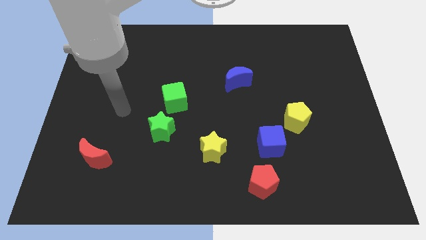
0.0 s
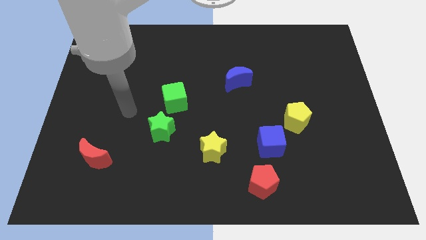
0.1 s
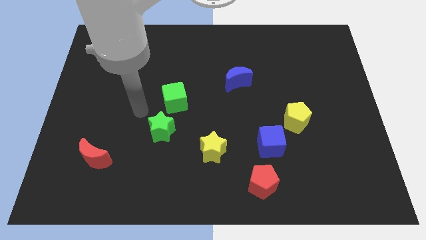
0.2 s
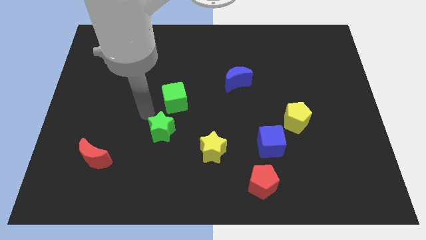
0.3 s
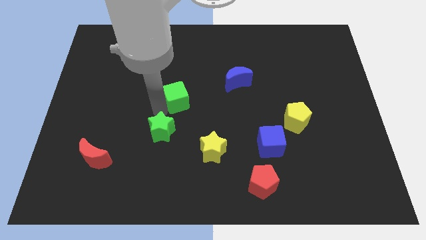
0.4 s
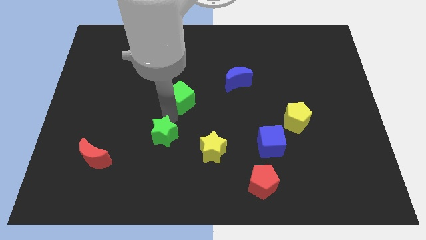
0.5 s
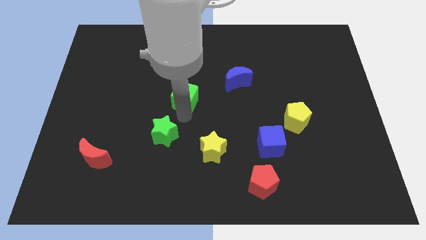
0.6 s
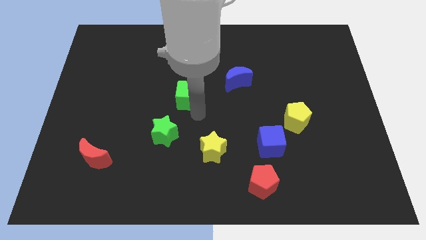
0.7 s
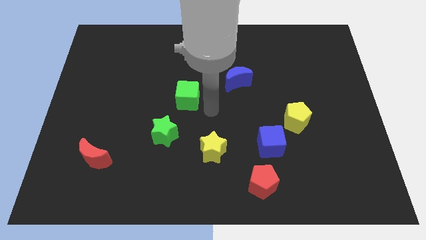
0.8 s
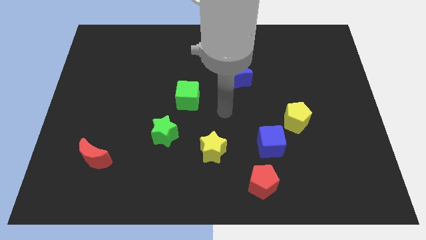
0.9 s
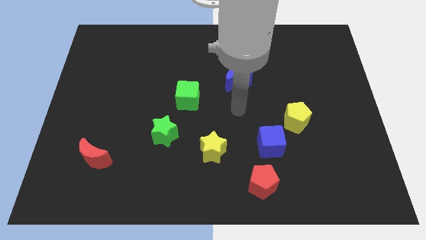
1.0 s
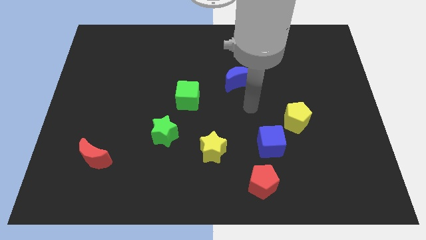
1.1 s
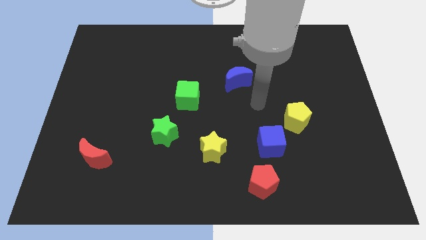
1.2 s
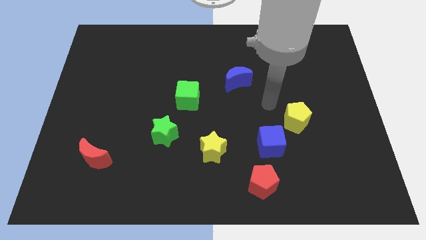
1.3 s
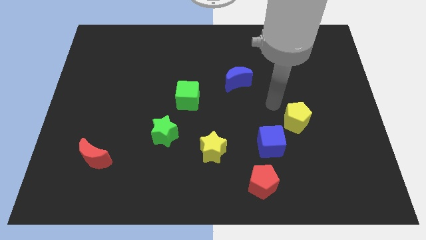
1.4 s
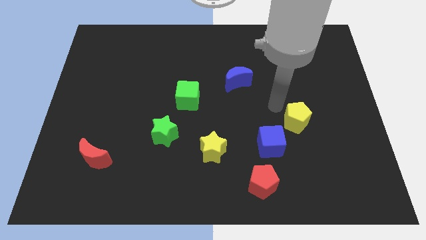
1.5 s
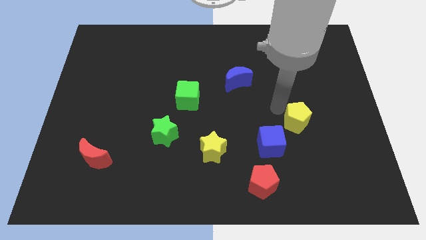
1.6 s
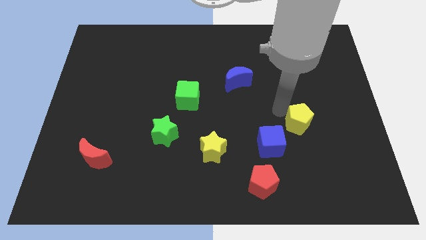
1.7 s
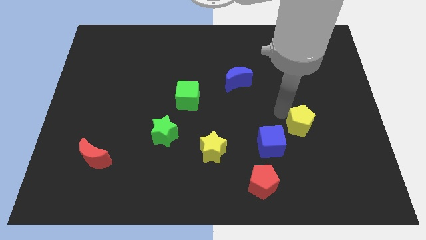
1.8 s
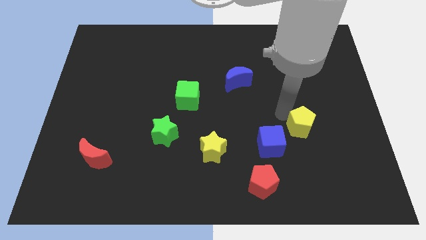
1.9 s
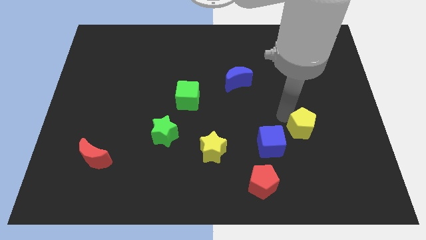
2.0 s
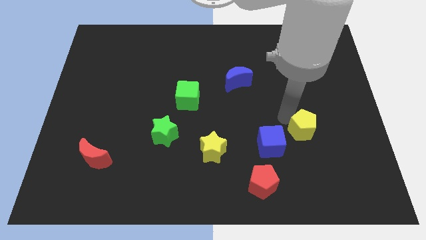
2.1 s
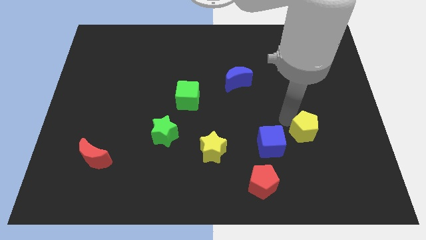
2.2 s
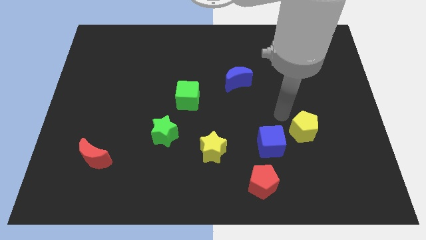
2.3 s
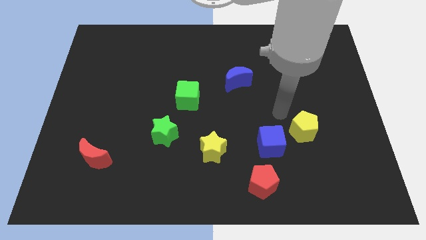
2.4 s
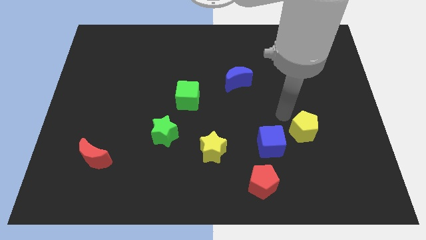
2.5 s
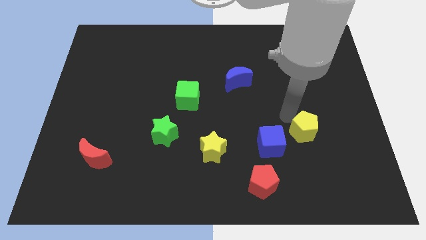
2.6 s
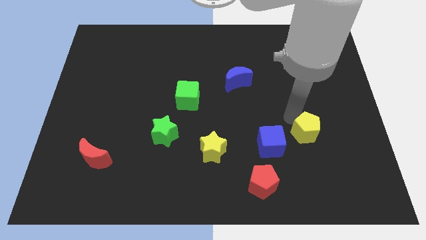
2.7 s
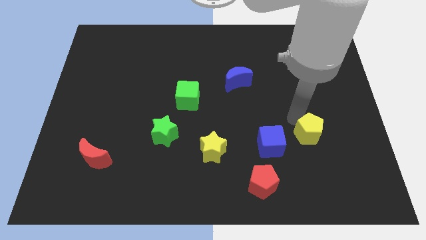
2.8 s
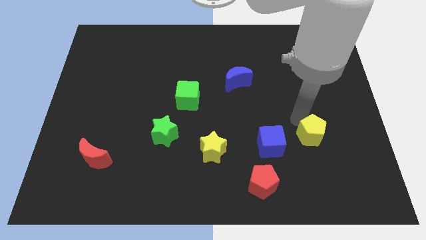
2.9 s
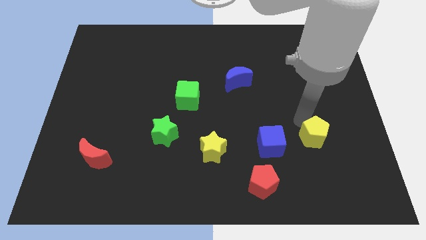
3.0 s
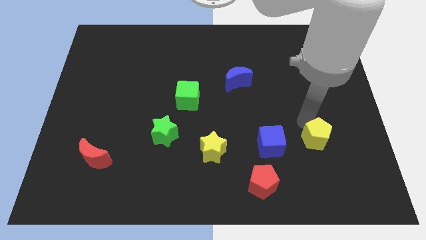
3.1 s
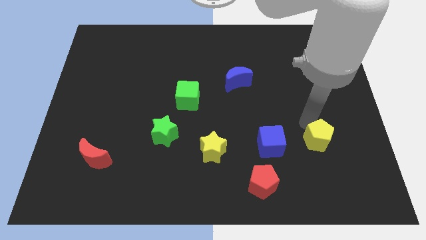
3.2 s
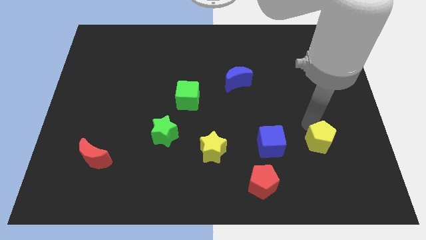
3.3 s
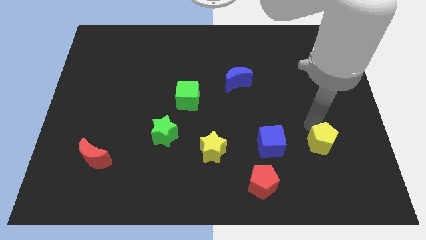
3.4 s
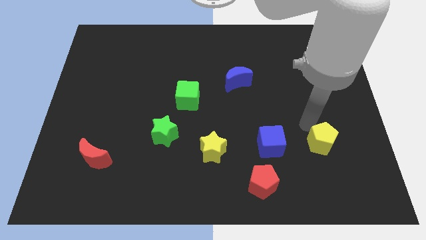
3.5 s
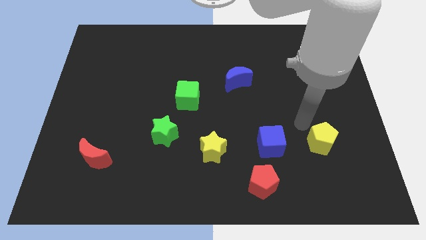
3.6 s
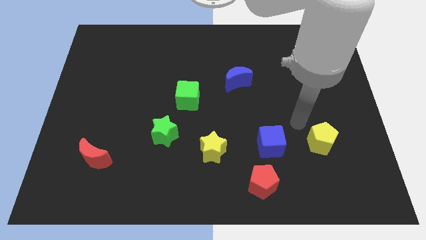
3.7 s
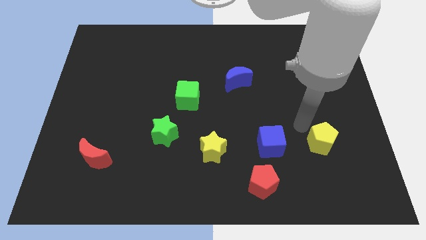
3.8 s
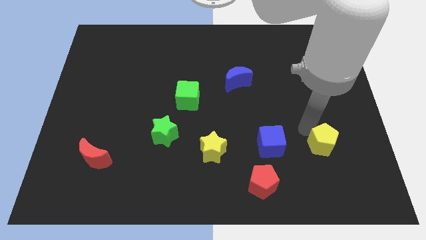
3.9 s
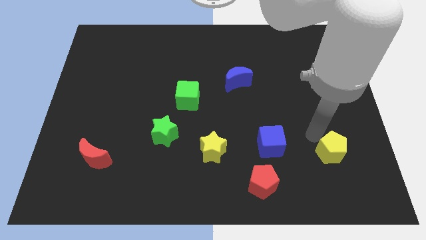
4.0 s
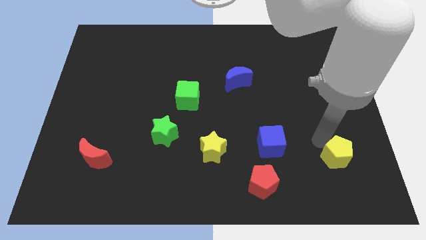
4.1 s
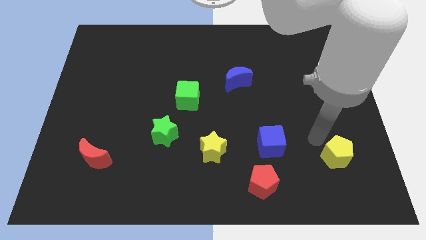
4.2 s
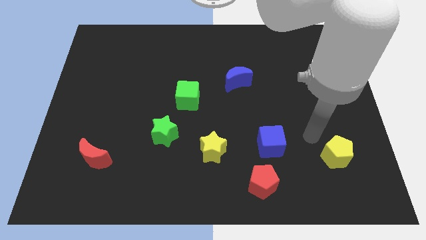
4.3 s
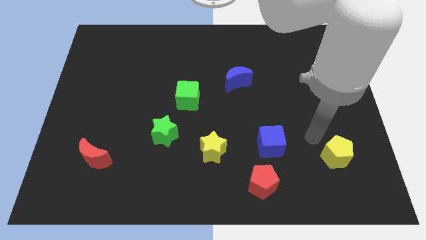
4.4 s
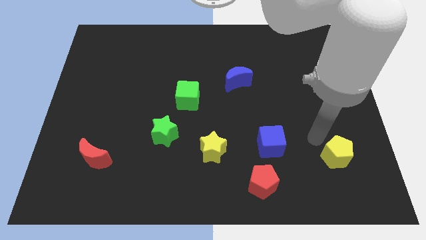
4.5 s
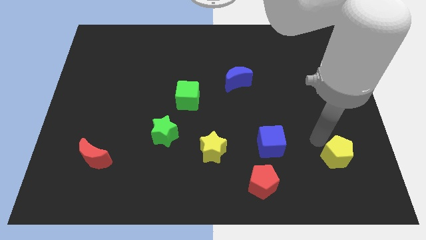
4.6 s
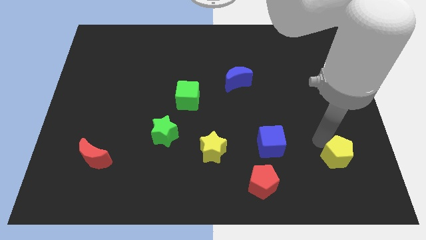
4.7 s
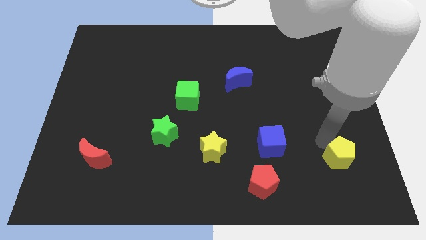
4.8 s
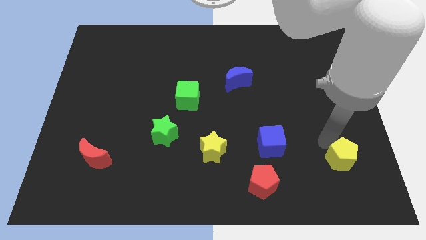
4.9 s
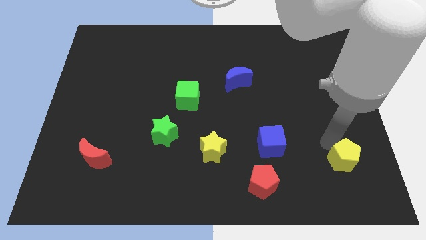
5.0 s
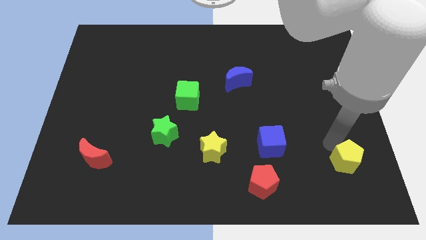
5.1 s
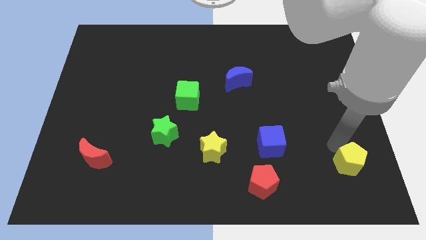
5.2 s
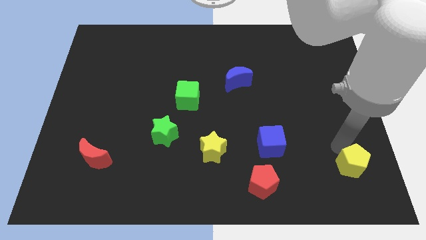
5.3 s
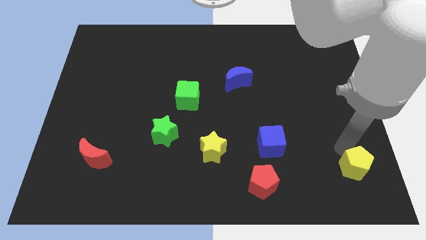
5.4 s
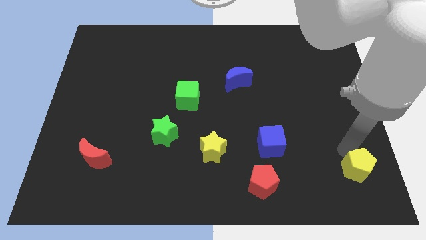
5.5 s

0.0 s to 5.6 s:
put the yellow pentagon to the bottom right
